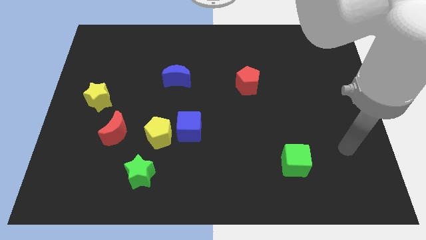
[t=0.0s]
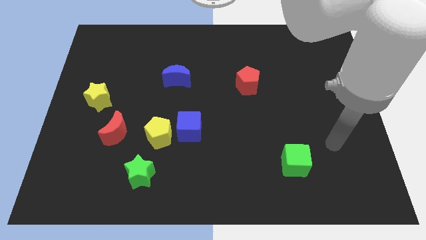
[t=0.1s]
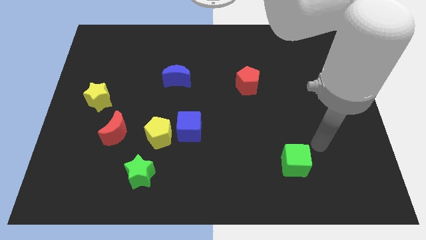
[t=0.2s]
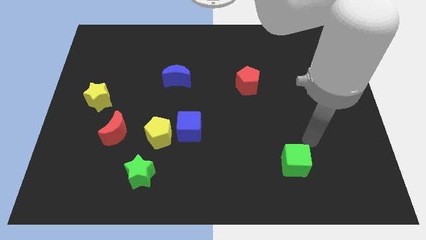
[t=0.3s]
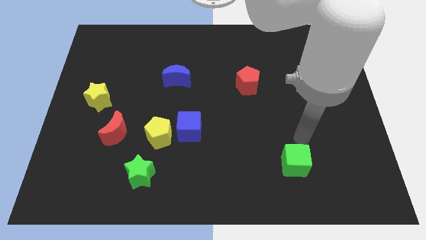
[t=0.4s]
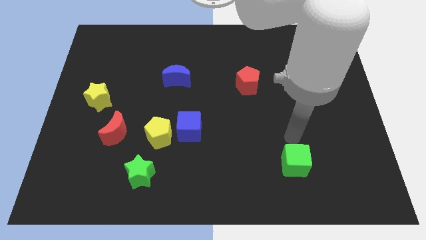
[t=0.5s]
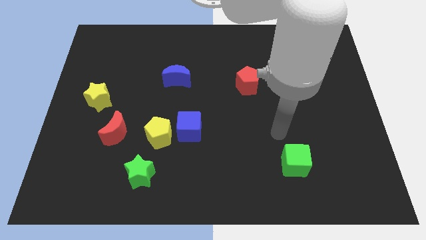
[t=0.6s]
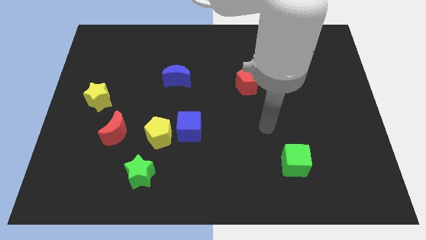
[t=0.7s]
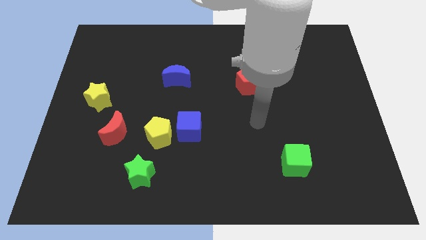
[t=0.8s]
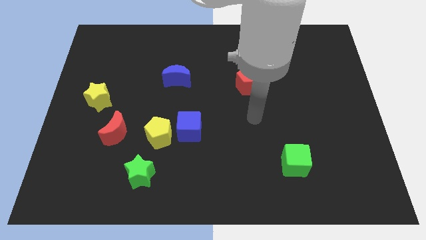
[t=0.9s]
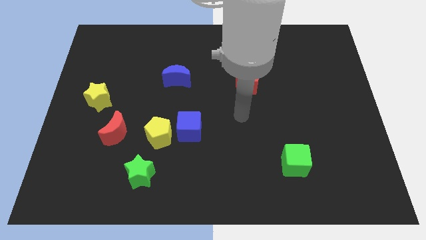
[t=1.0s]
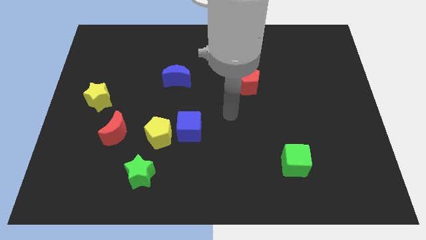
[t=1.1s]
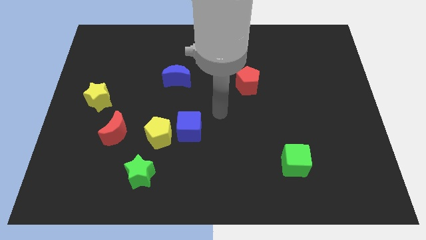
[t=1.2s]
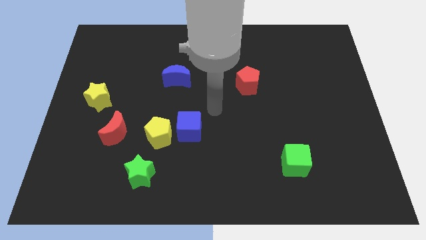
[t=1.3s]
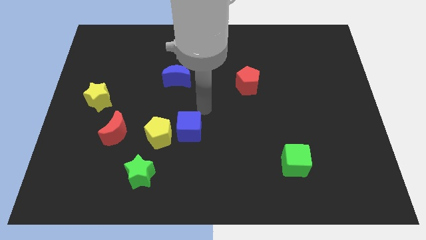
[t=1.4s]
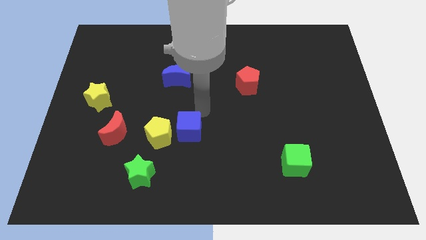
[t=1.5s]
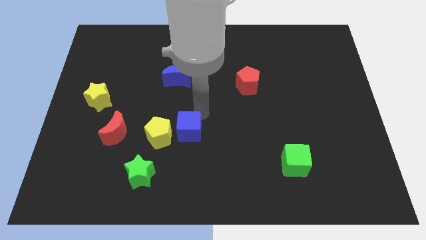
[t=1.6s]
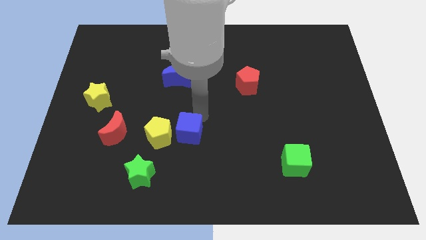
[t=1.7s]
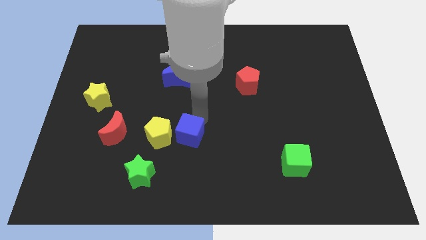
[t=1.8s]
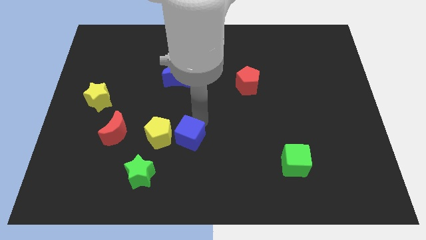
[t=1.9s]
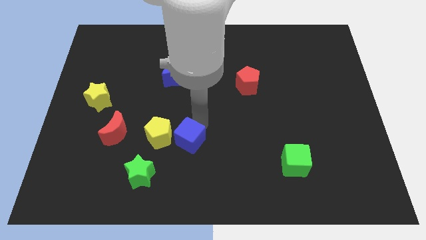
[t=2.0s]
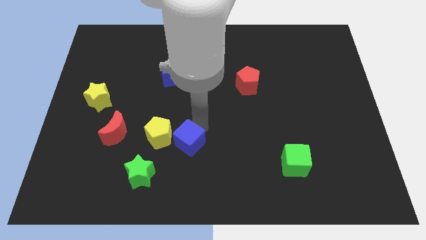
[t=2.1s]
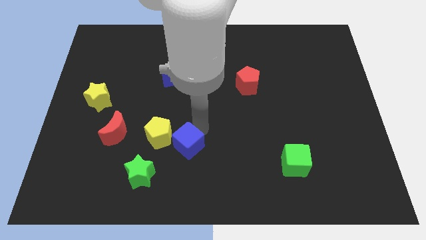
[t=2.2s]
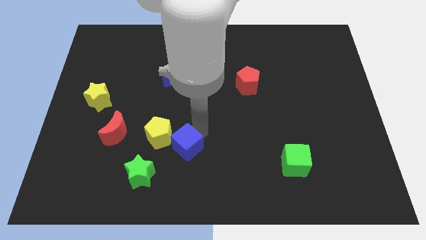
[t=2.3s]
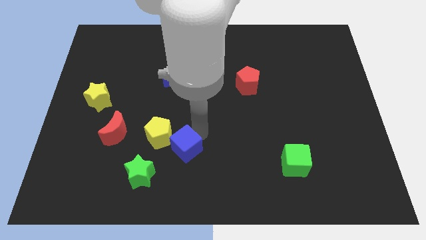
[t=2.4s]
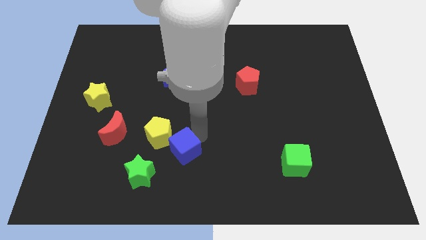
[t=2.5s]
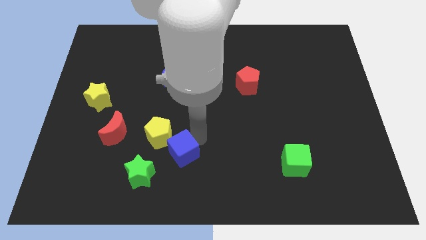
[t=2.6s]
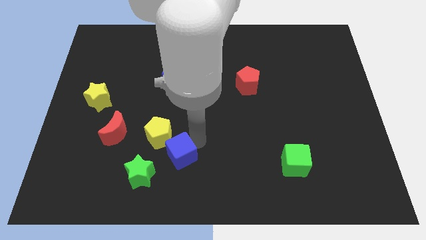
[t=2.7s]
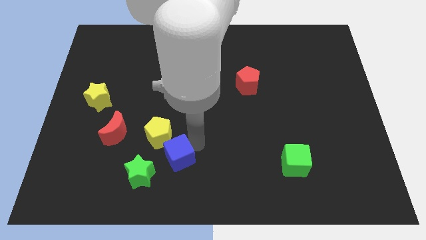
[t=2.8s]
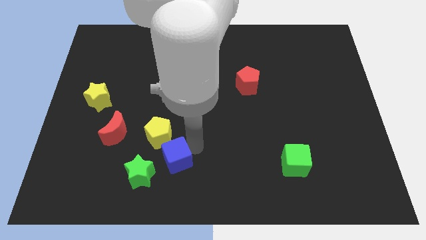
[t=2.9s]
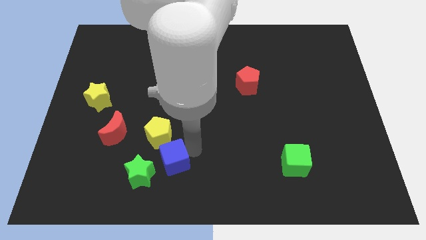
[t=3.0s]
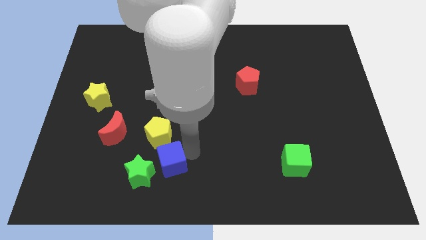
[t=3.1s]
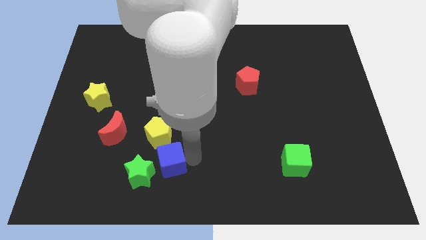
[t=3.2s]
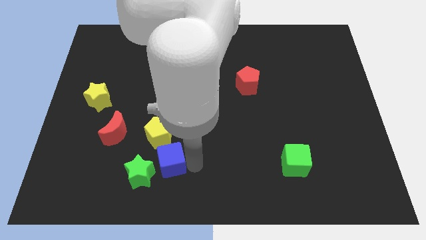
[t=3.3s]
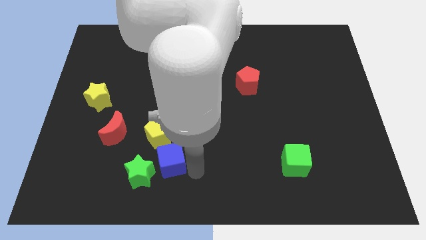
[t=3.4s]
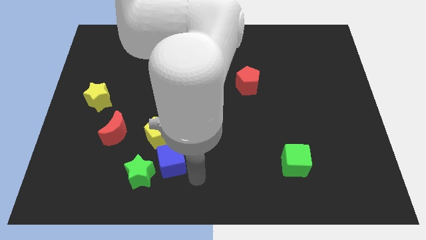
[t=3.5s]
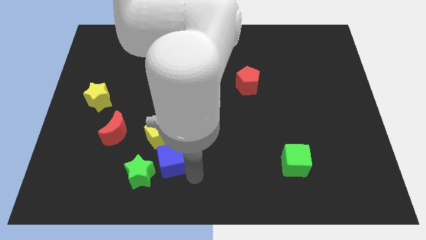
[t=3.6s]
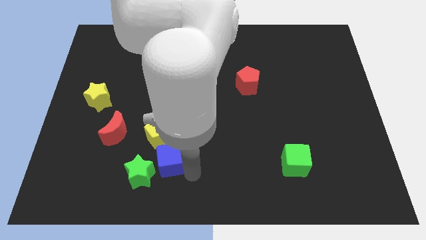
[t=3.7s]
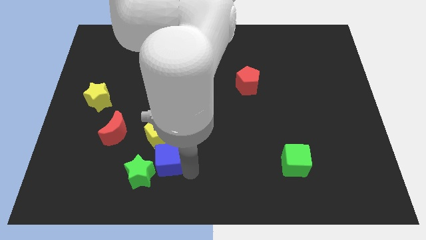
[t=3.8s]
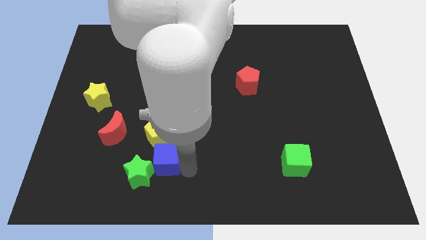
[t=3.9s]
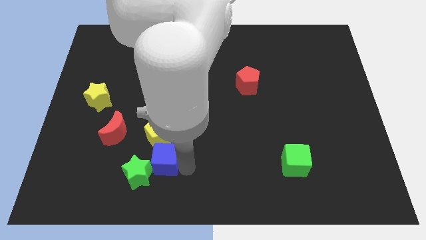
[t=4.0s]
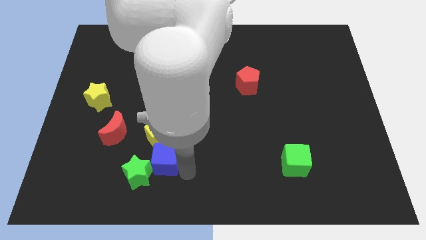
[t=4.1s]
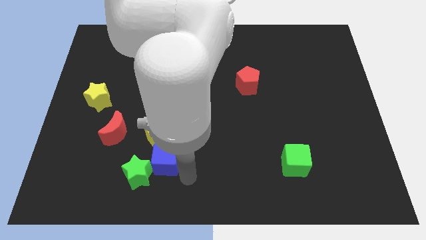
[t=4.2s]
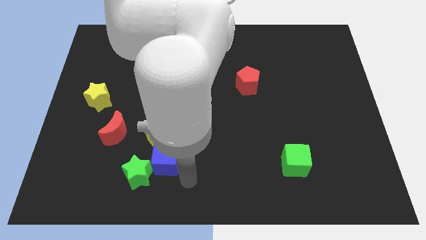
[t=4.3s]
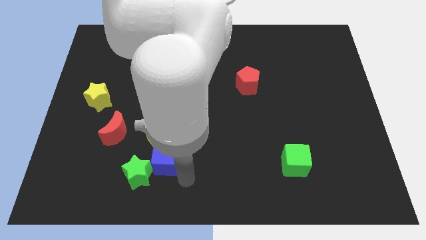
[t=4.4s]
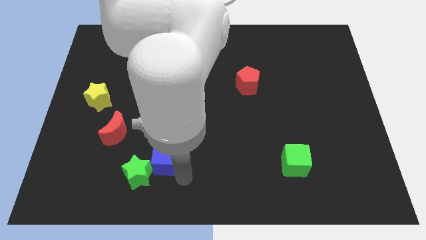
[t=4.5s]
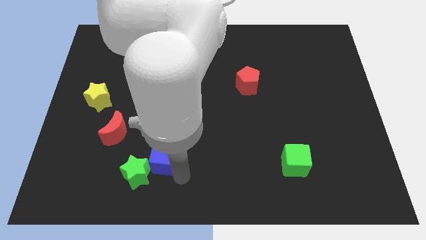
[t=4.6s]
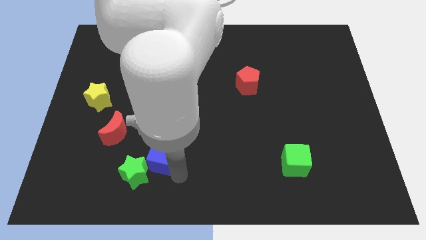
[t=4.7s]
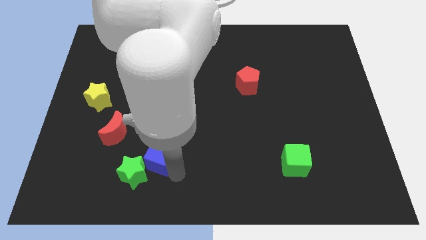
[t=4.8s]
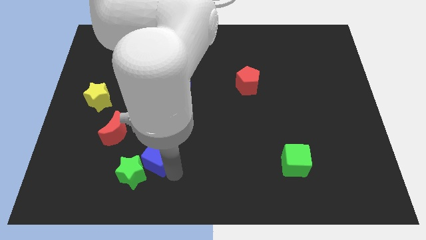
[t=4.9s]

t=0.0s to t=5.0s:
push the blue cube to the bottom left side of the yellow pentagon

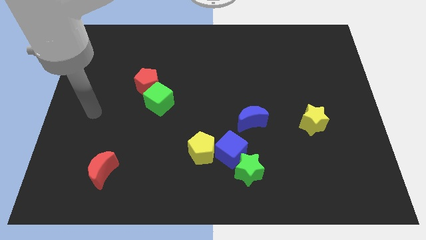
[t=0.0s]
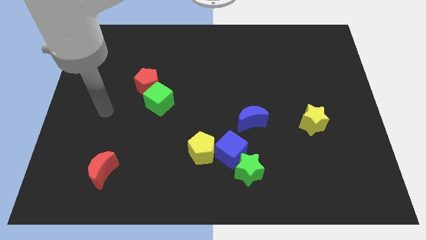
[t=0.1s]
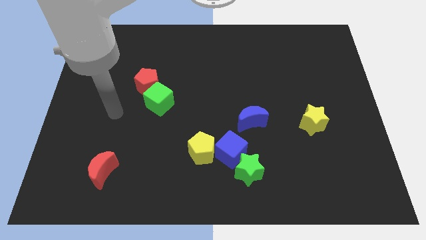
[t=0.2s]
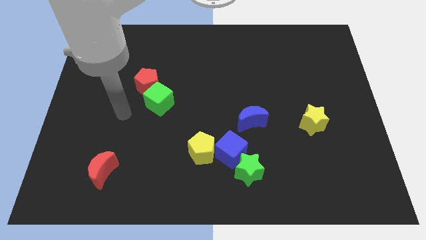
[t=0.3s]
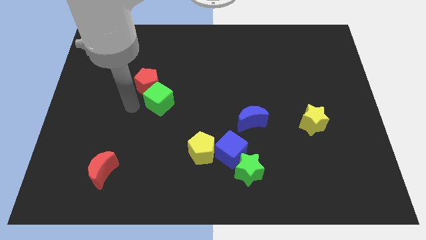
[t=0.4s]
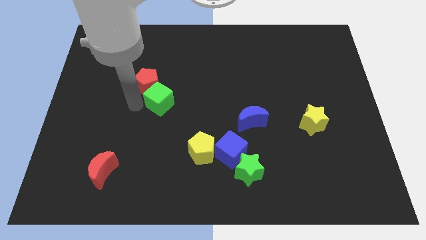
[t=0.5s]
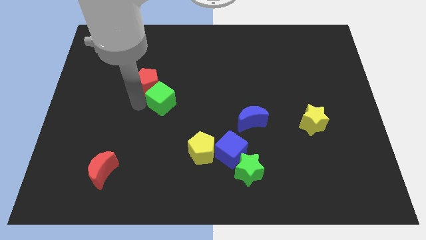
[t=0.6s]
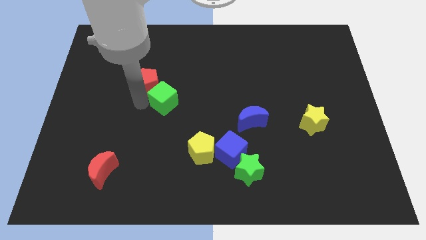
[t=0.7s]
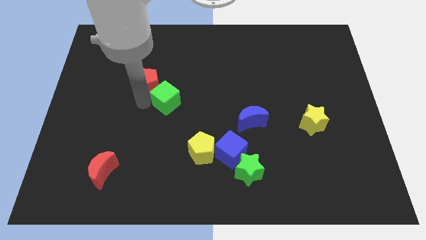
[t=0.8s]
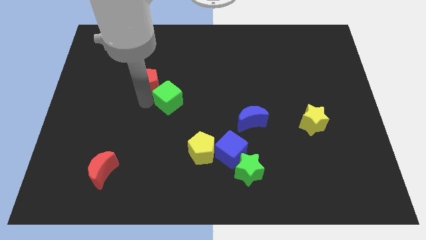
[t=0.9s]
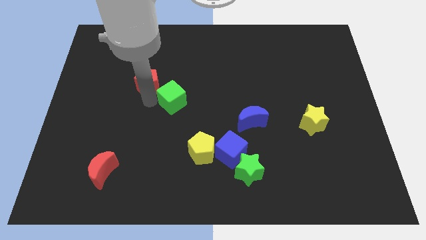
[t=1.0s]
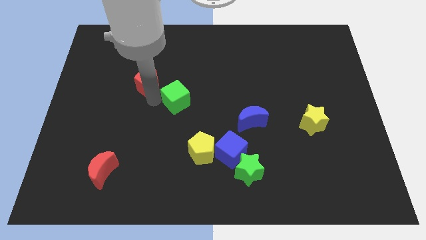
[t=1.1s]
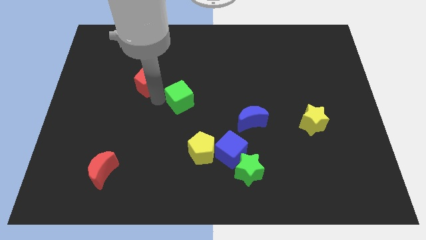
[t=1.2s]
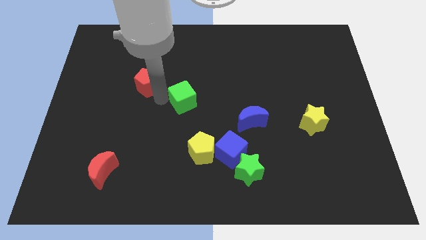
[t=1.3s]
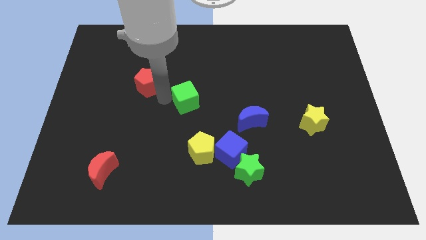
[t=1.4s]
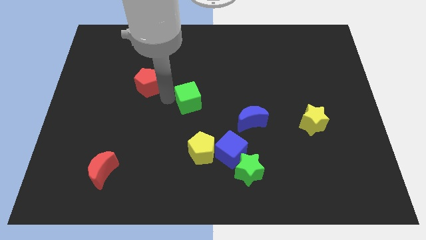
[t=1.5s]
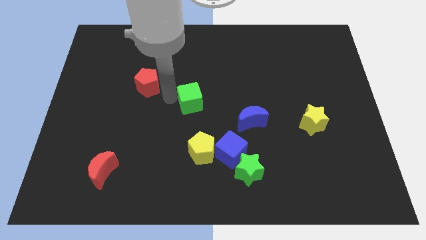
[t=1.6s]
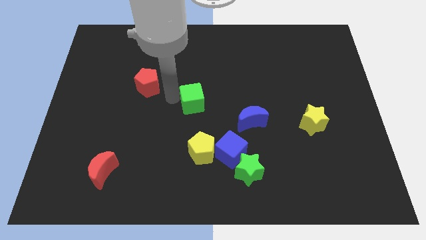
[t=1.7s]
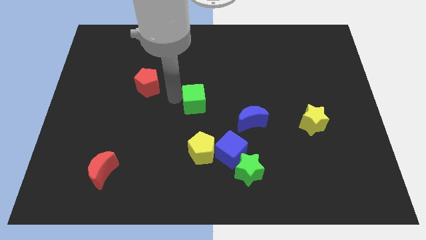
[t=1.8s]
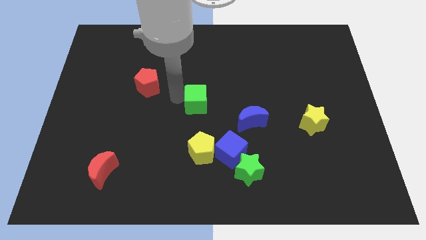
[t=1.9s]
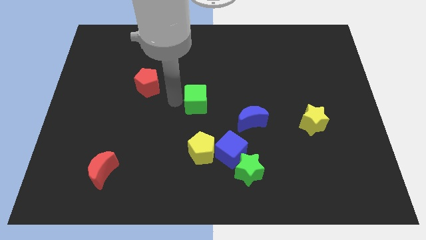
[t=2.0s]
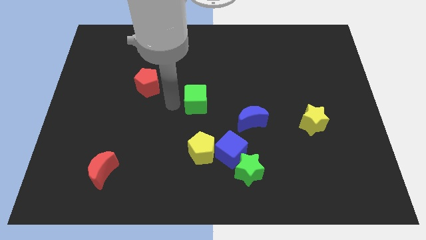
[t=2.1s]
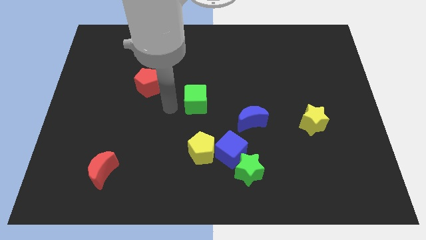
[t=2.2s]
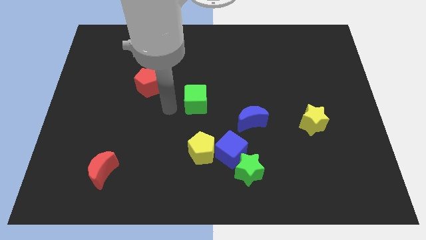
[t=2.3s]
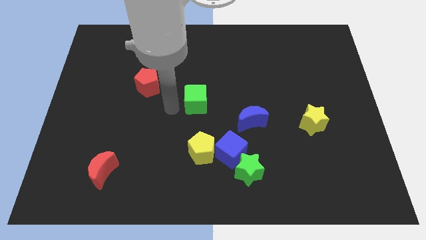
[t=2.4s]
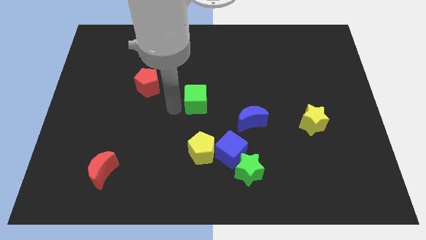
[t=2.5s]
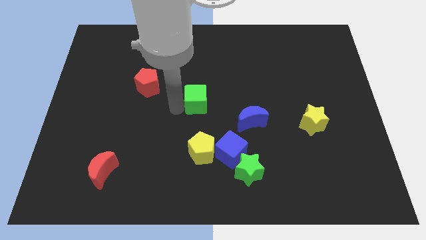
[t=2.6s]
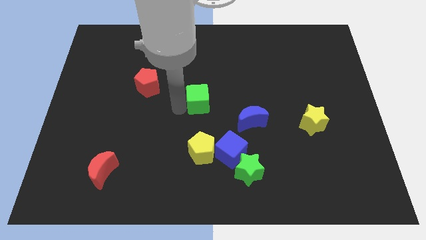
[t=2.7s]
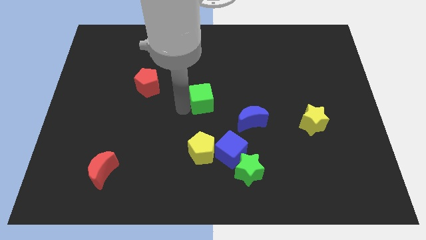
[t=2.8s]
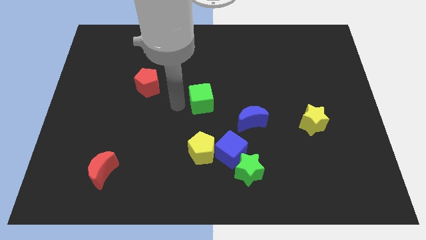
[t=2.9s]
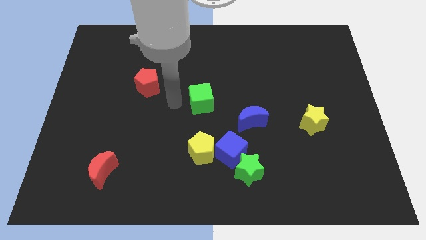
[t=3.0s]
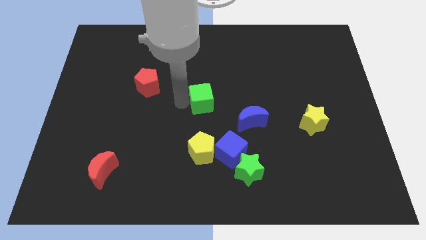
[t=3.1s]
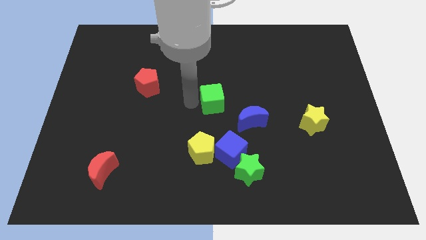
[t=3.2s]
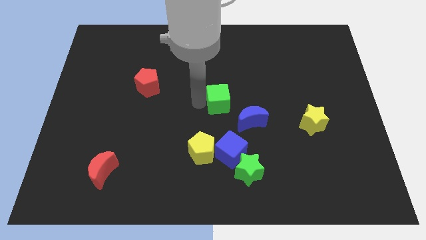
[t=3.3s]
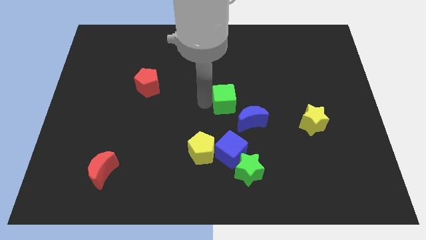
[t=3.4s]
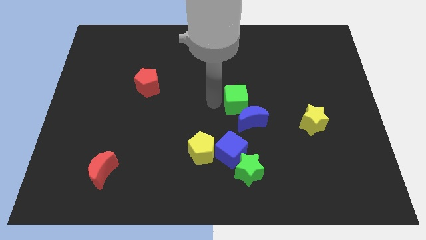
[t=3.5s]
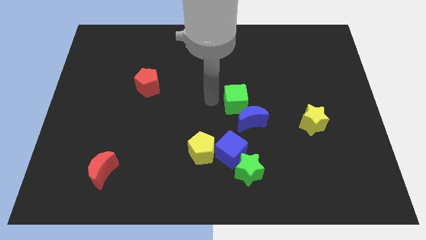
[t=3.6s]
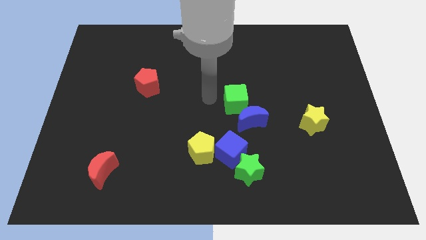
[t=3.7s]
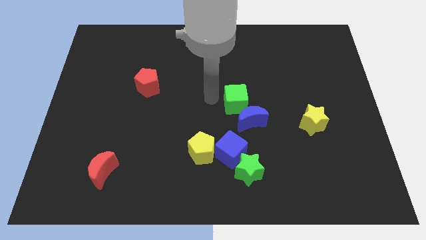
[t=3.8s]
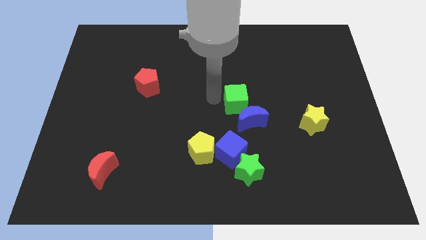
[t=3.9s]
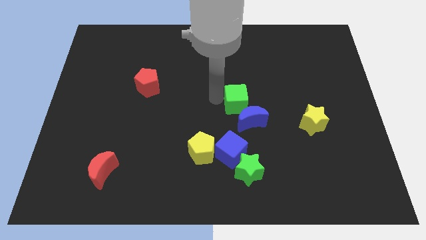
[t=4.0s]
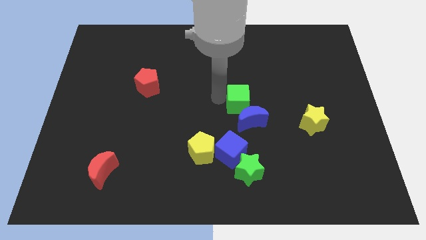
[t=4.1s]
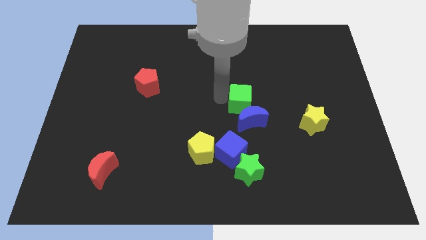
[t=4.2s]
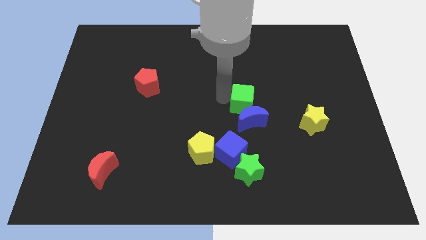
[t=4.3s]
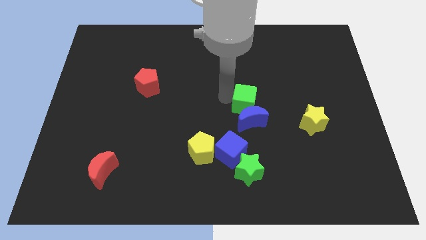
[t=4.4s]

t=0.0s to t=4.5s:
move the green cube to the top right side of the blue moon
